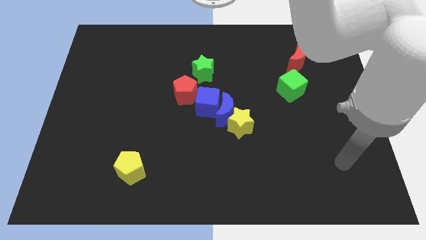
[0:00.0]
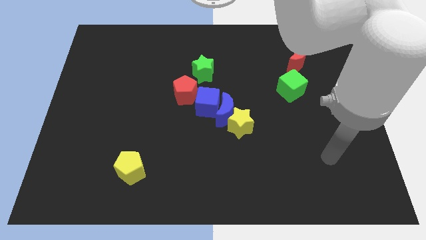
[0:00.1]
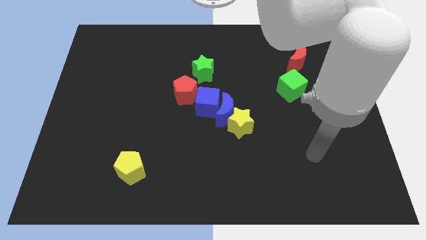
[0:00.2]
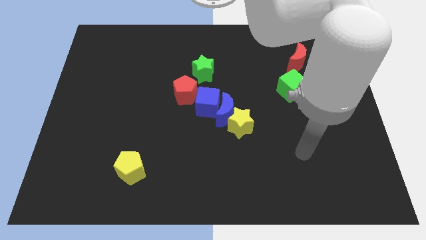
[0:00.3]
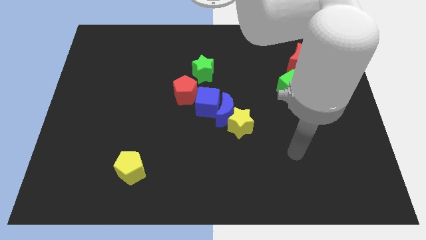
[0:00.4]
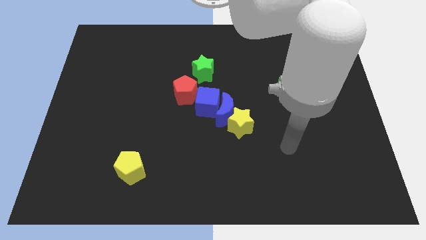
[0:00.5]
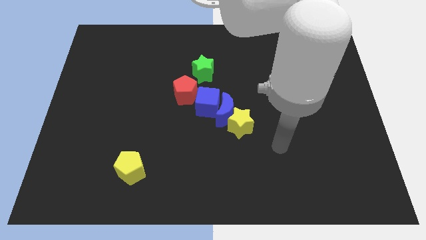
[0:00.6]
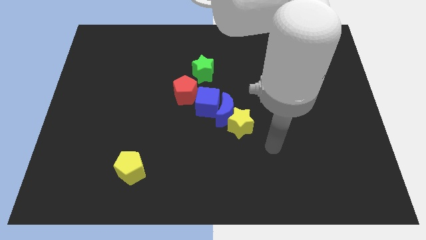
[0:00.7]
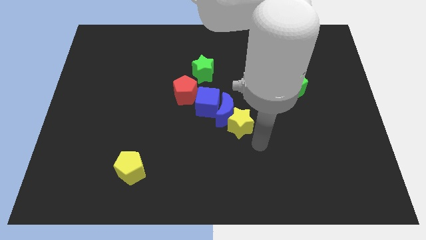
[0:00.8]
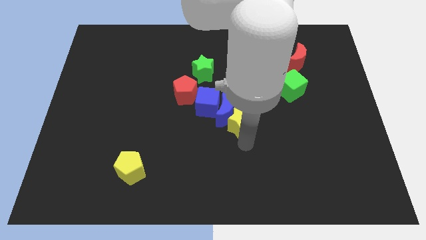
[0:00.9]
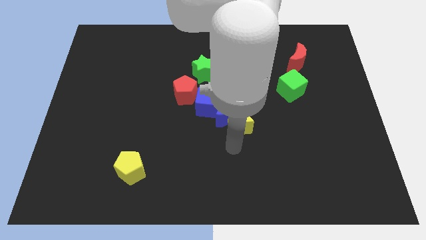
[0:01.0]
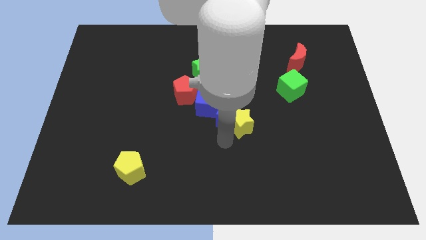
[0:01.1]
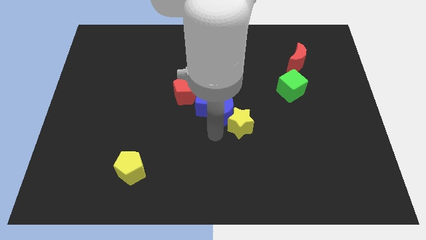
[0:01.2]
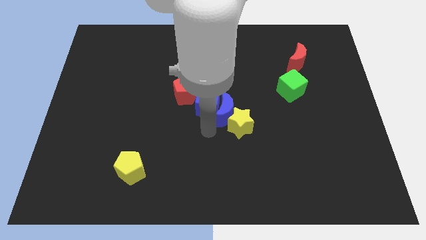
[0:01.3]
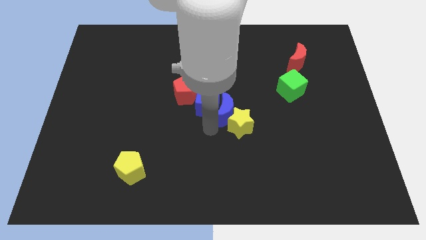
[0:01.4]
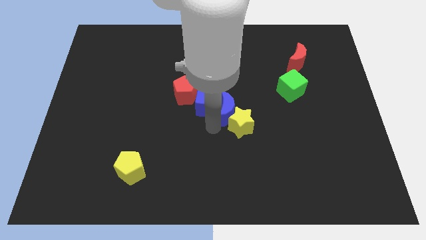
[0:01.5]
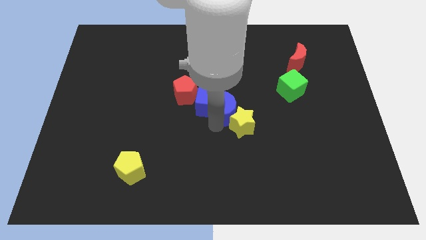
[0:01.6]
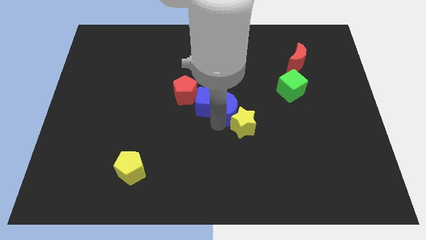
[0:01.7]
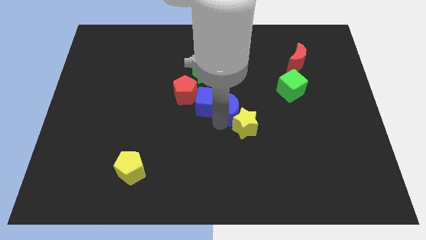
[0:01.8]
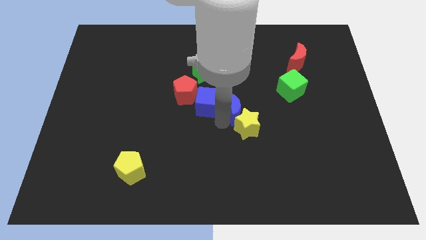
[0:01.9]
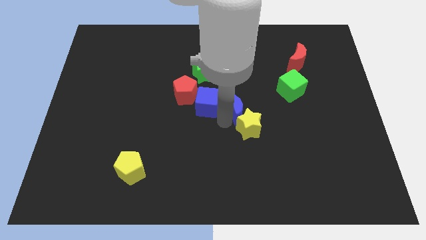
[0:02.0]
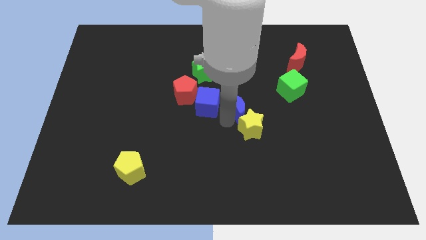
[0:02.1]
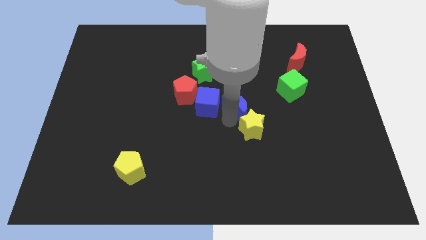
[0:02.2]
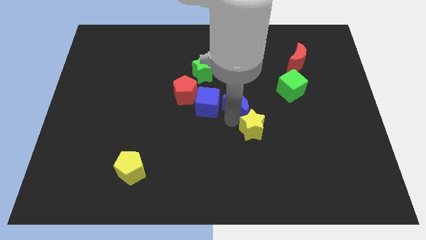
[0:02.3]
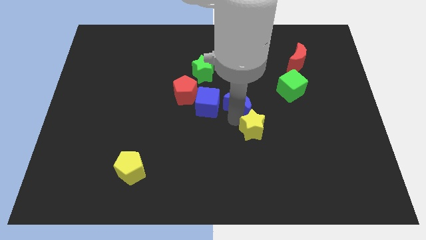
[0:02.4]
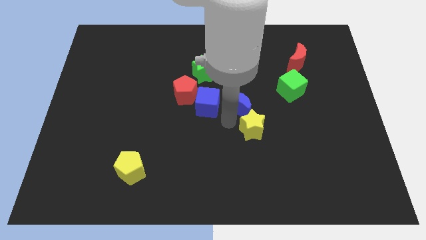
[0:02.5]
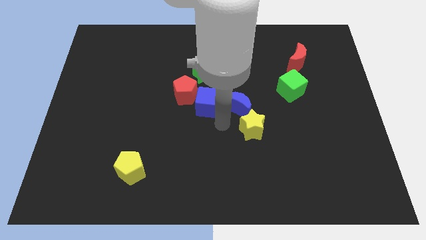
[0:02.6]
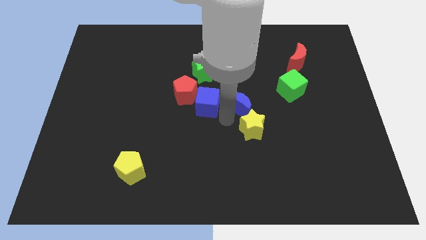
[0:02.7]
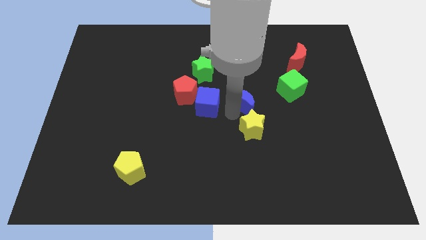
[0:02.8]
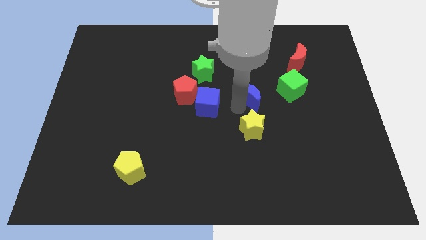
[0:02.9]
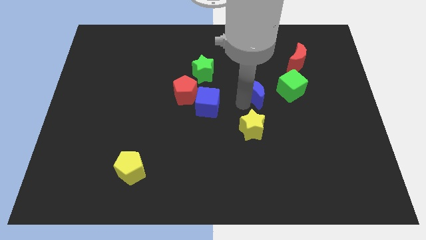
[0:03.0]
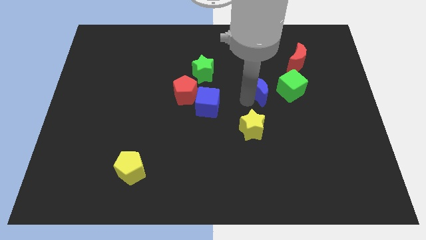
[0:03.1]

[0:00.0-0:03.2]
pull the blue moon apart from the yellow star and blue cube

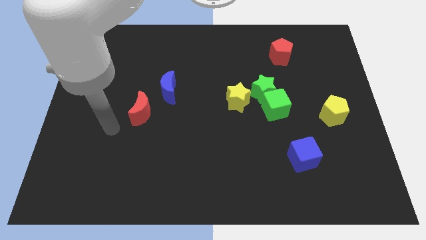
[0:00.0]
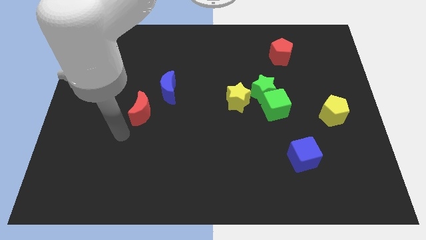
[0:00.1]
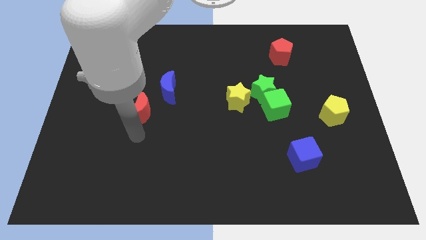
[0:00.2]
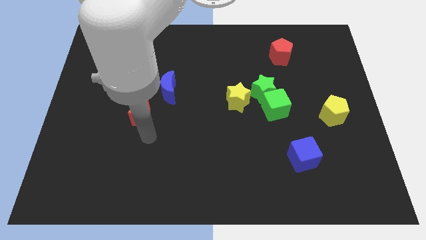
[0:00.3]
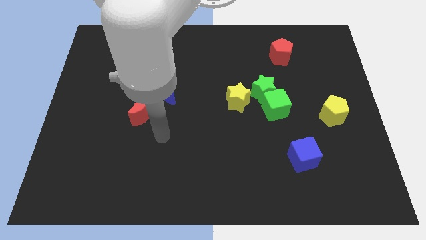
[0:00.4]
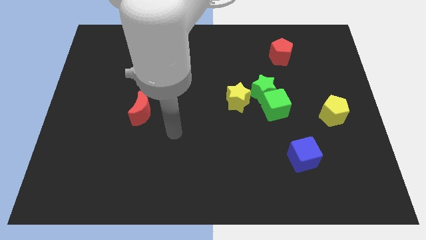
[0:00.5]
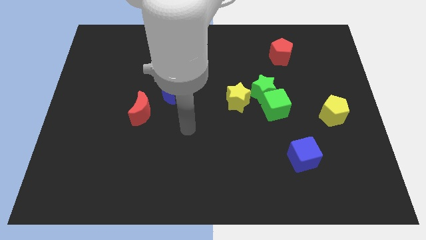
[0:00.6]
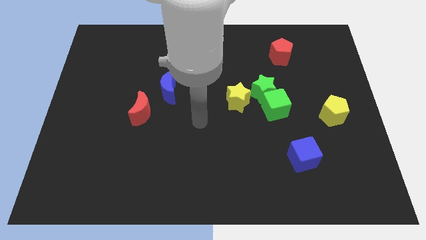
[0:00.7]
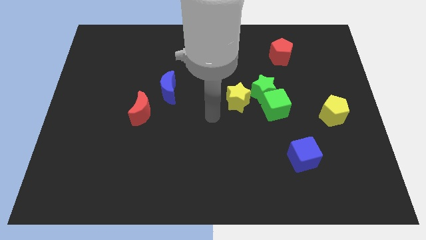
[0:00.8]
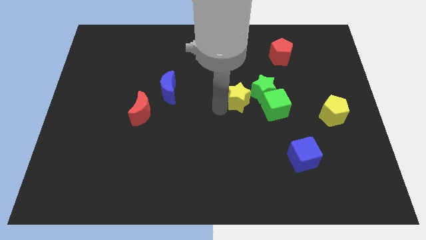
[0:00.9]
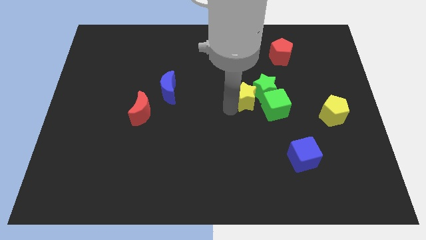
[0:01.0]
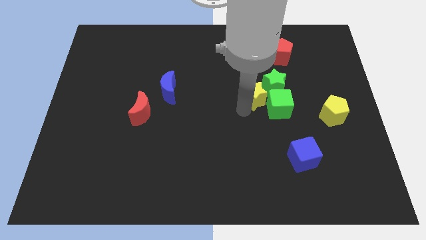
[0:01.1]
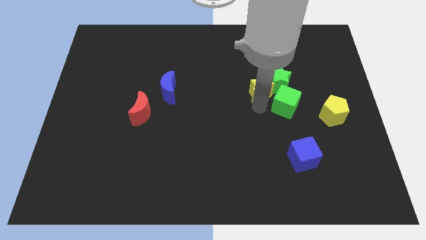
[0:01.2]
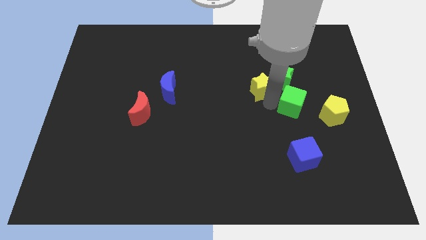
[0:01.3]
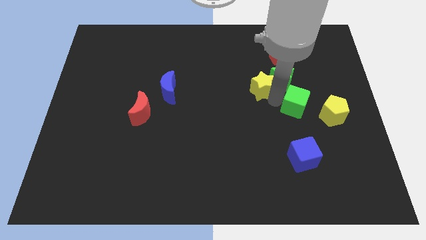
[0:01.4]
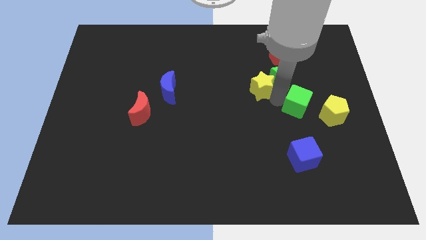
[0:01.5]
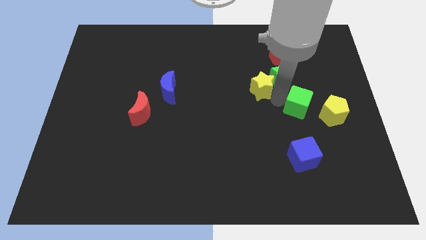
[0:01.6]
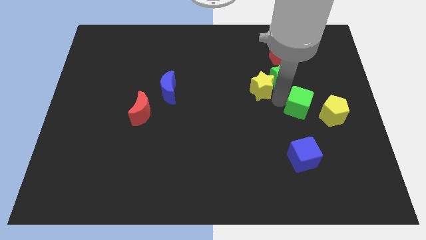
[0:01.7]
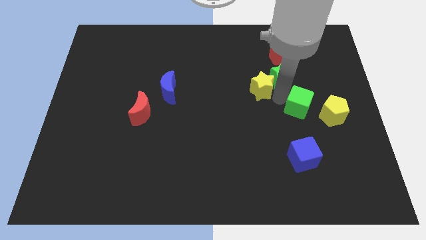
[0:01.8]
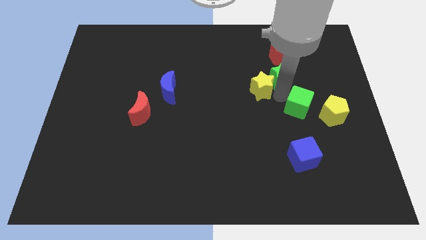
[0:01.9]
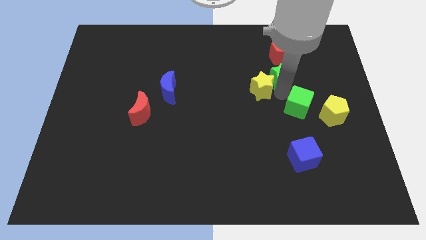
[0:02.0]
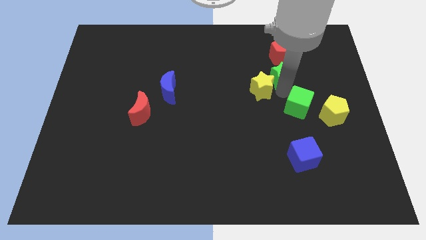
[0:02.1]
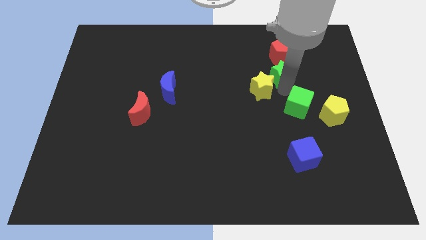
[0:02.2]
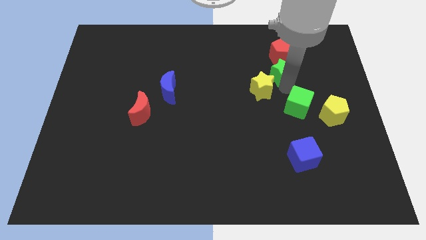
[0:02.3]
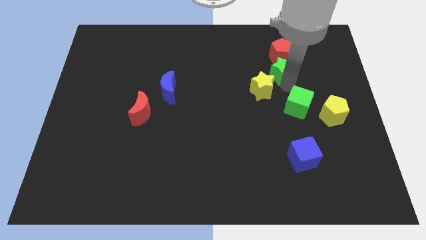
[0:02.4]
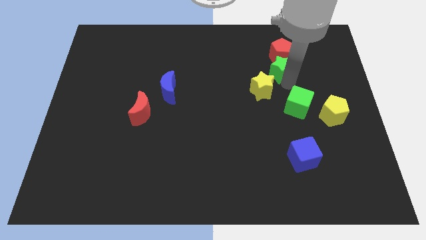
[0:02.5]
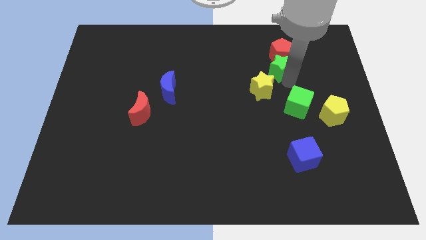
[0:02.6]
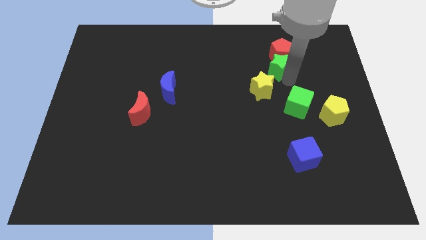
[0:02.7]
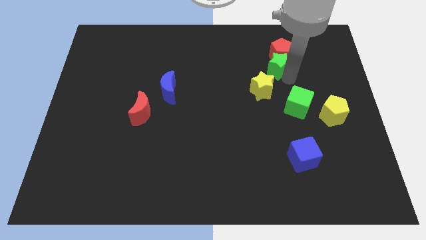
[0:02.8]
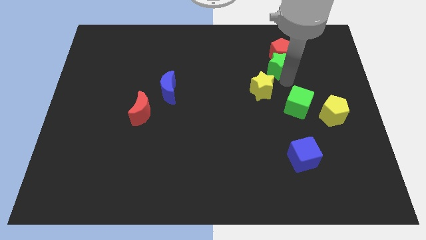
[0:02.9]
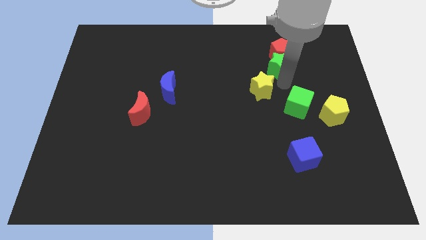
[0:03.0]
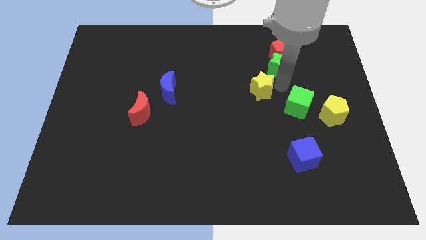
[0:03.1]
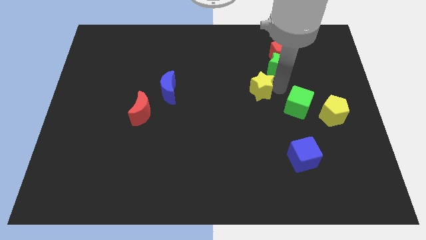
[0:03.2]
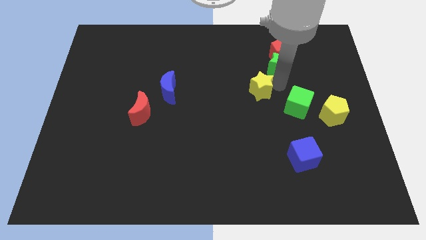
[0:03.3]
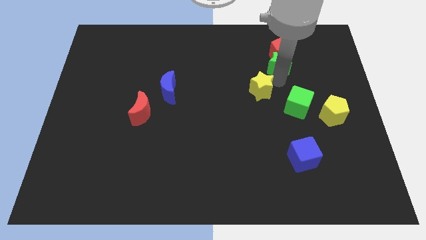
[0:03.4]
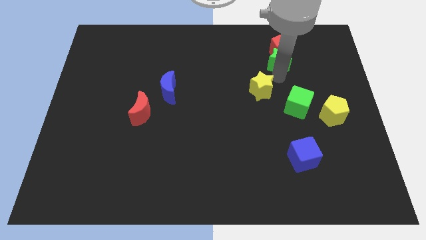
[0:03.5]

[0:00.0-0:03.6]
move the green star away from the green cube and yellow star

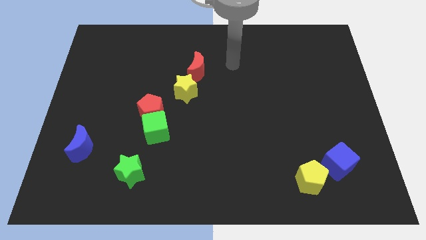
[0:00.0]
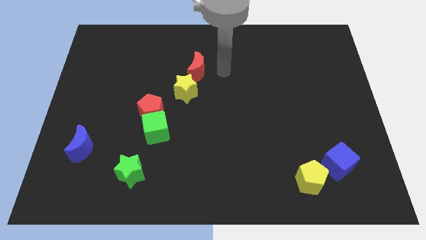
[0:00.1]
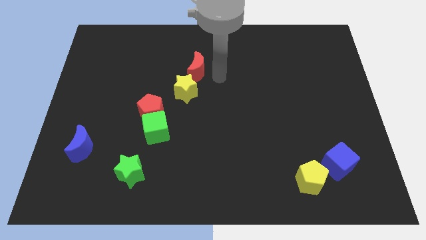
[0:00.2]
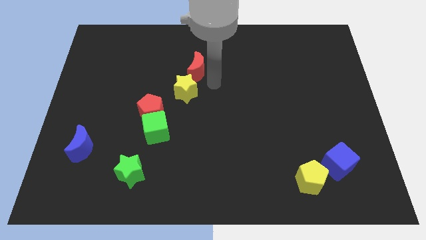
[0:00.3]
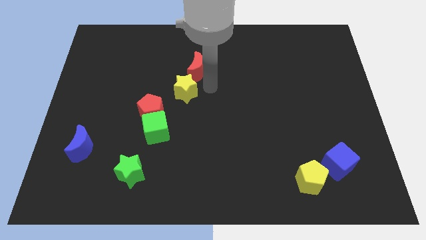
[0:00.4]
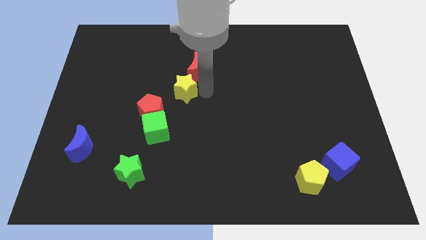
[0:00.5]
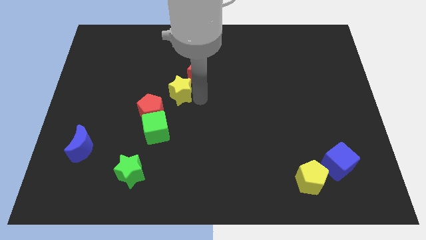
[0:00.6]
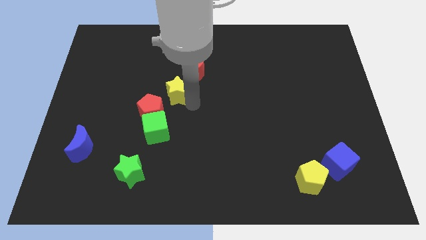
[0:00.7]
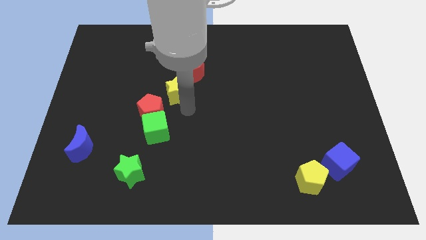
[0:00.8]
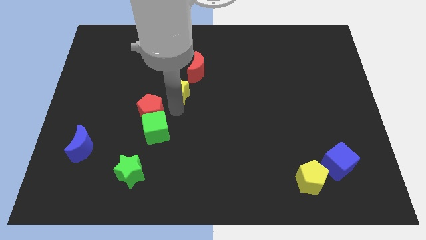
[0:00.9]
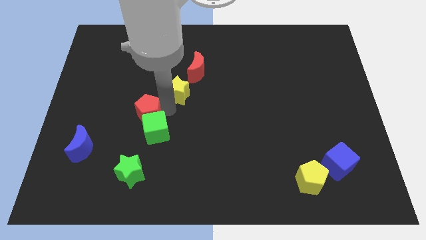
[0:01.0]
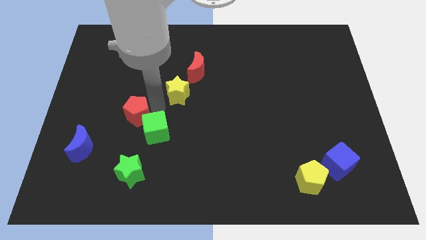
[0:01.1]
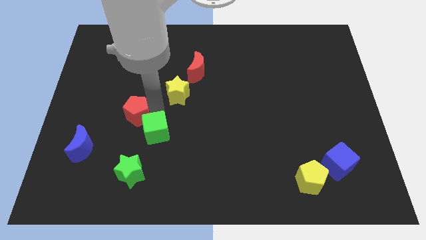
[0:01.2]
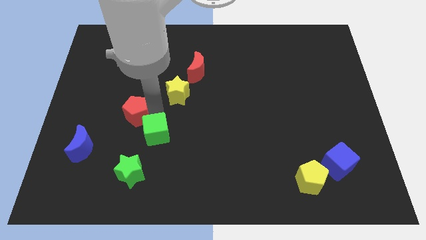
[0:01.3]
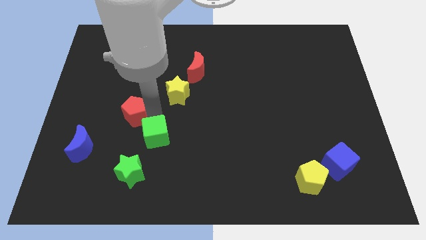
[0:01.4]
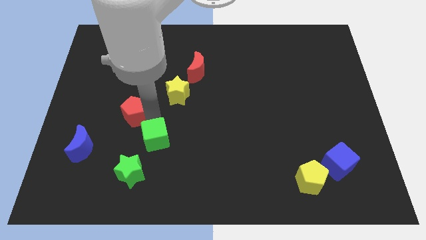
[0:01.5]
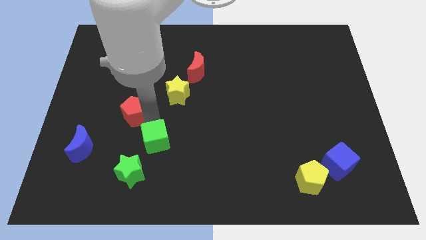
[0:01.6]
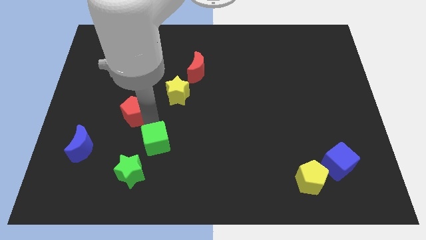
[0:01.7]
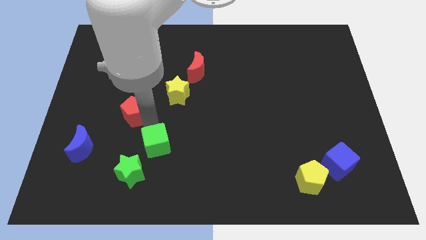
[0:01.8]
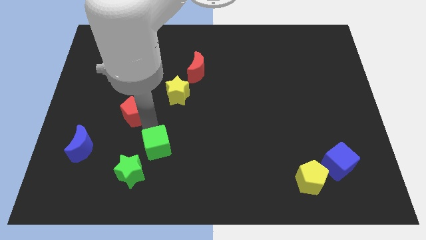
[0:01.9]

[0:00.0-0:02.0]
move the green cube away from the red pentagon

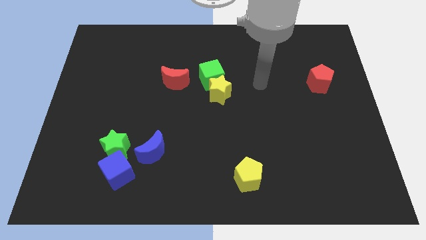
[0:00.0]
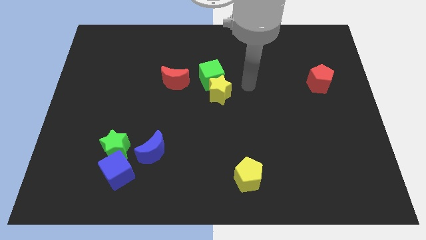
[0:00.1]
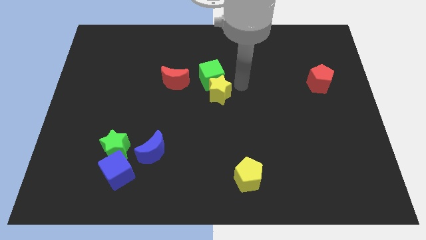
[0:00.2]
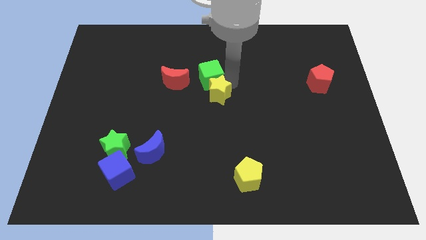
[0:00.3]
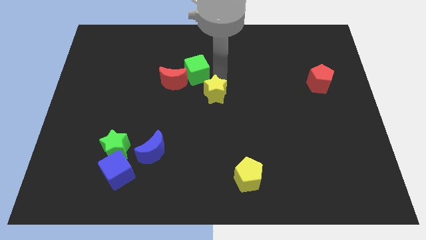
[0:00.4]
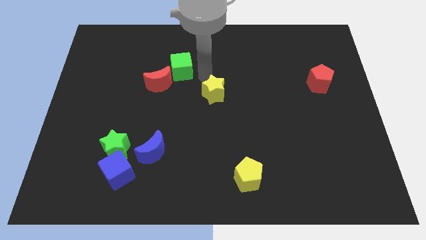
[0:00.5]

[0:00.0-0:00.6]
pull the yellow star apart from the green cube
